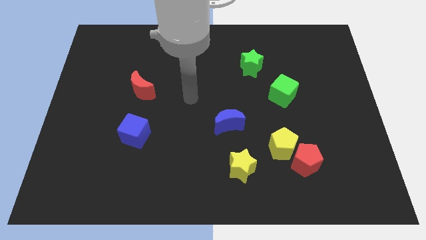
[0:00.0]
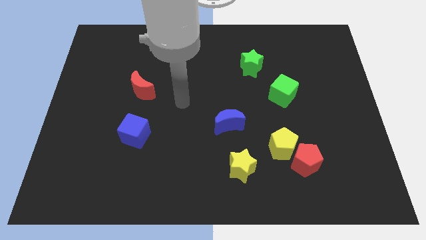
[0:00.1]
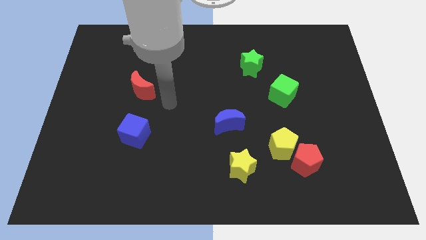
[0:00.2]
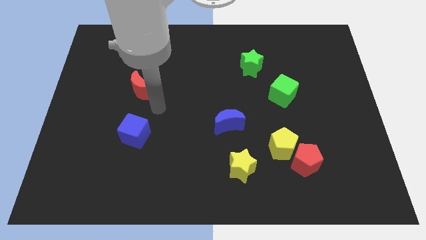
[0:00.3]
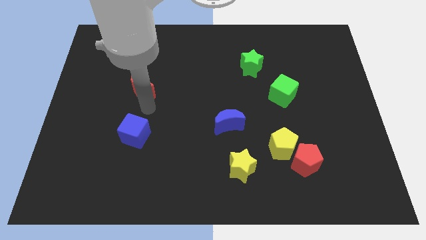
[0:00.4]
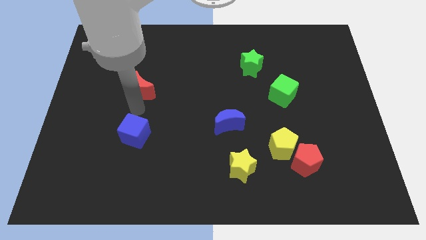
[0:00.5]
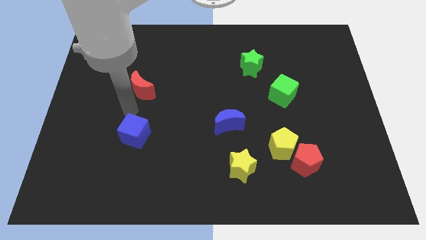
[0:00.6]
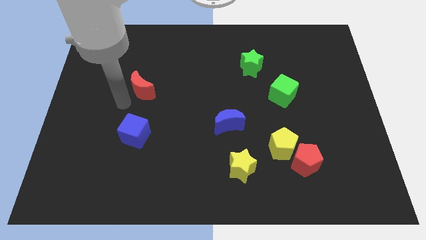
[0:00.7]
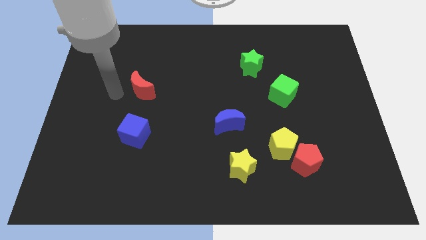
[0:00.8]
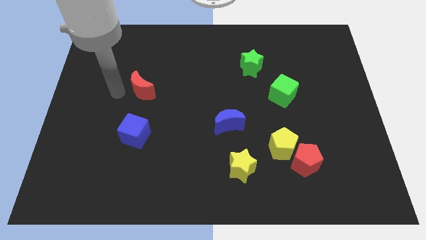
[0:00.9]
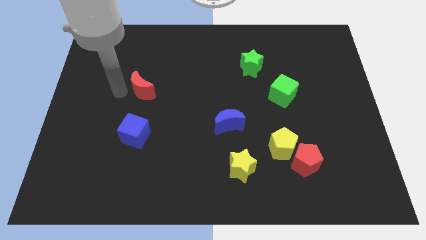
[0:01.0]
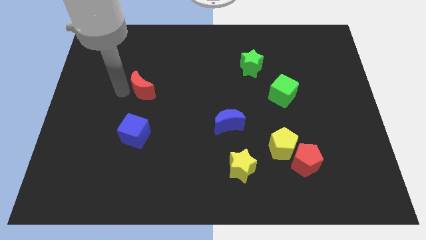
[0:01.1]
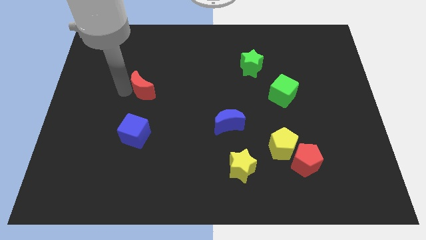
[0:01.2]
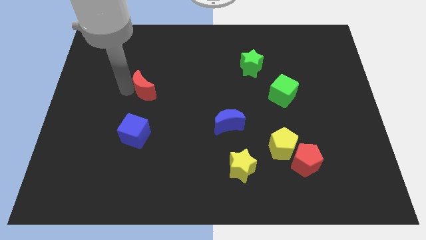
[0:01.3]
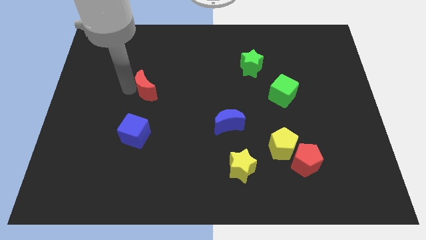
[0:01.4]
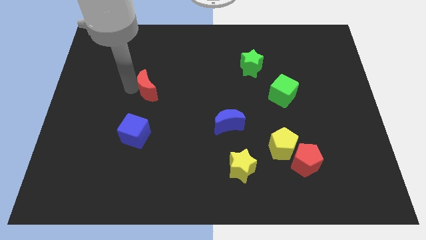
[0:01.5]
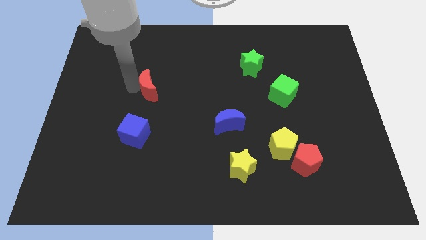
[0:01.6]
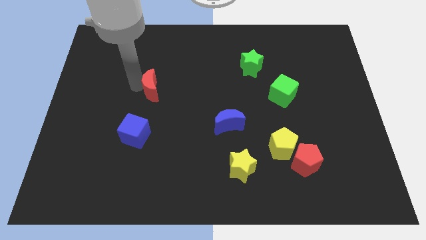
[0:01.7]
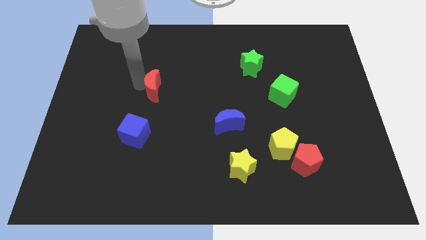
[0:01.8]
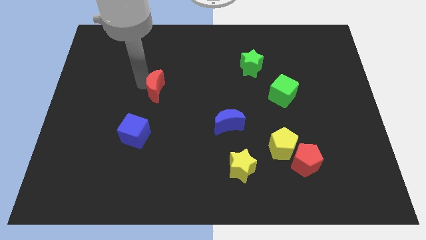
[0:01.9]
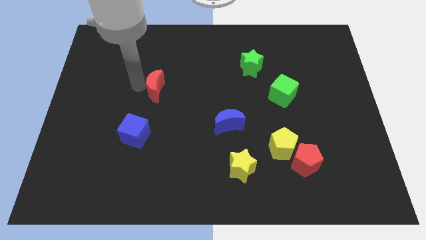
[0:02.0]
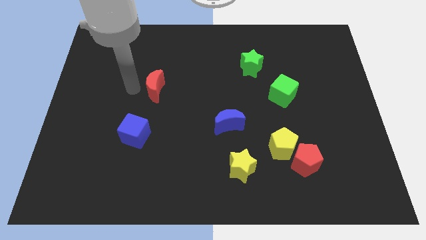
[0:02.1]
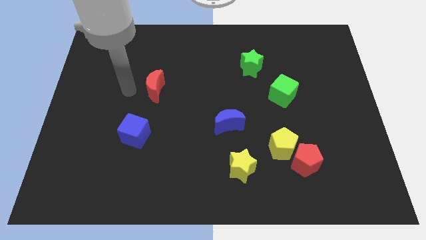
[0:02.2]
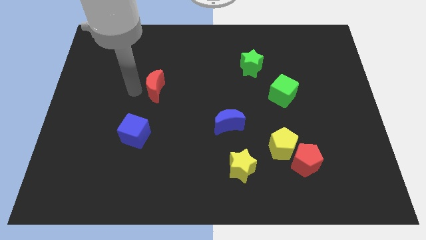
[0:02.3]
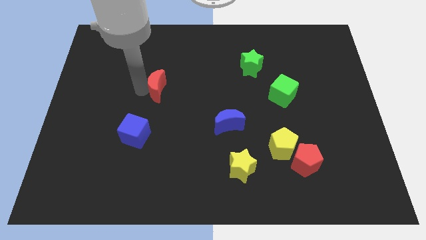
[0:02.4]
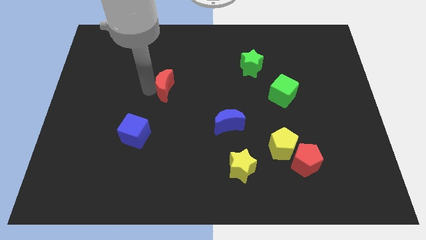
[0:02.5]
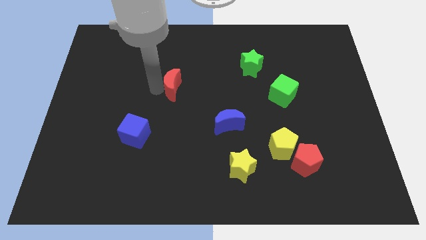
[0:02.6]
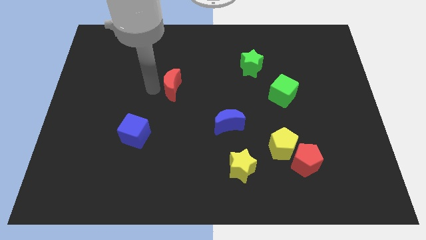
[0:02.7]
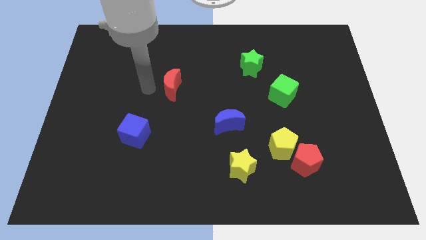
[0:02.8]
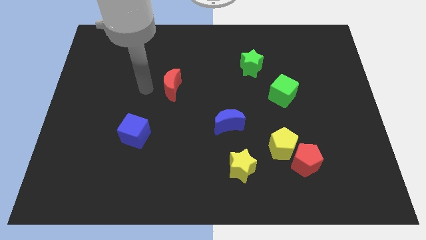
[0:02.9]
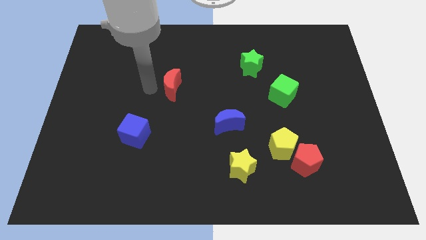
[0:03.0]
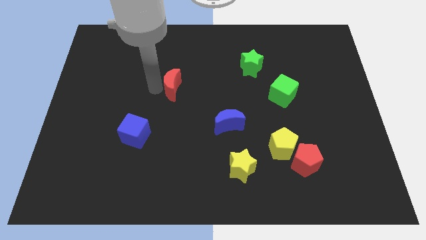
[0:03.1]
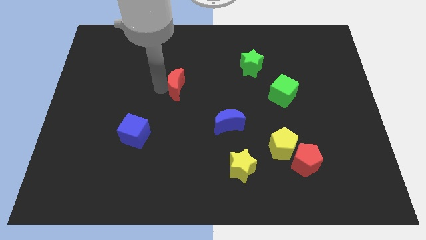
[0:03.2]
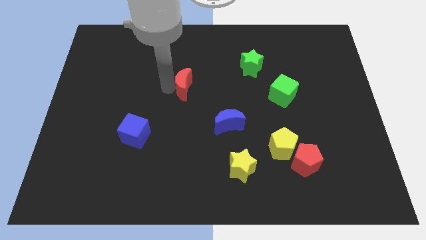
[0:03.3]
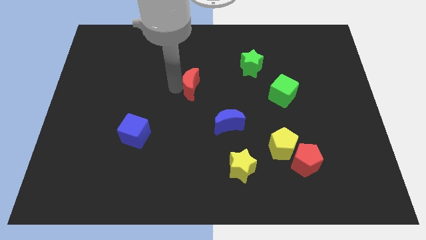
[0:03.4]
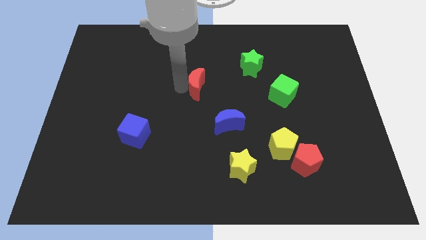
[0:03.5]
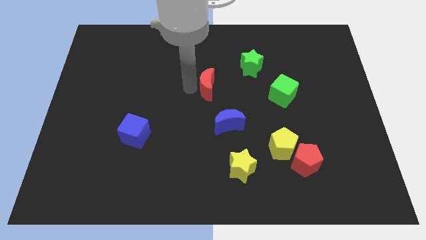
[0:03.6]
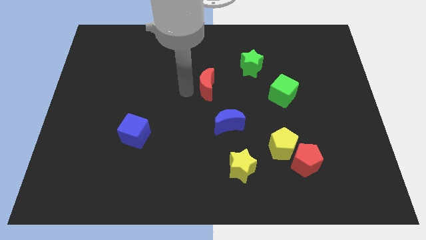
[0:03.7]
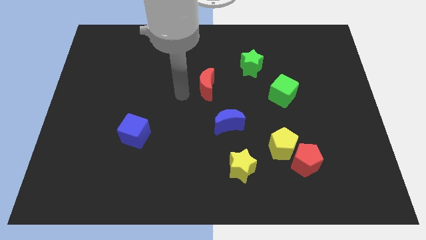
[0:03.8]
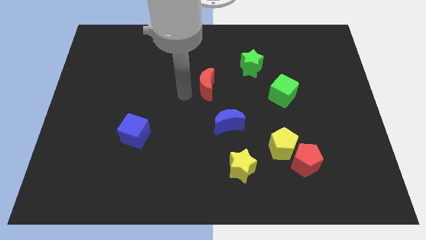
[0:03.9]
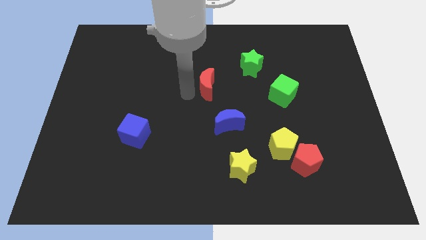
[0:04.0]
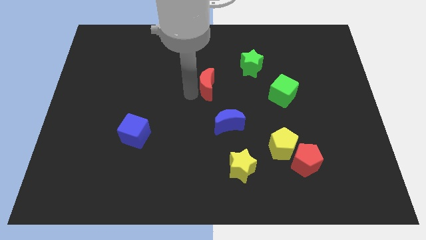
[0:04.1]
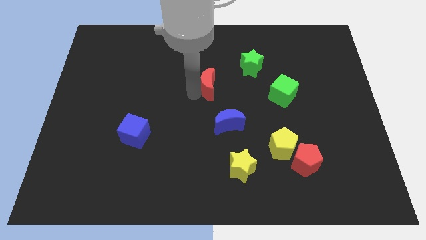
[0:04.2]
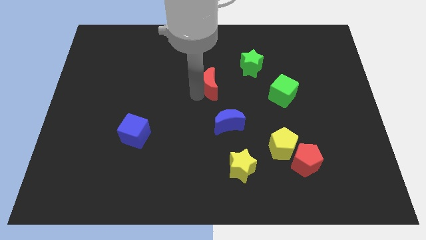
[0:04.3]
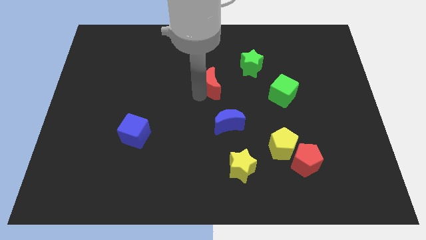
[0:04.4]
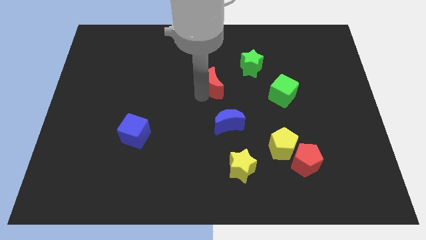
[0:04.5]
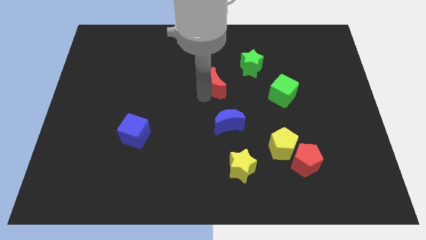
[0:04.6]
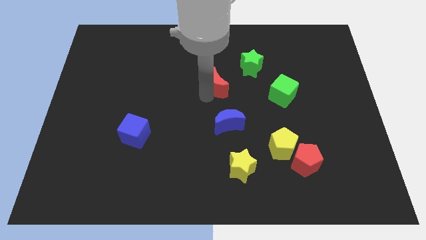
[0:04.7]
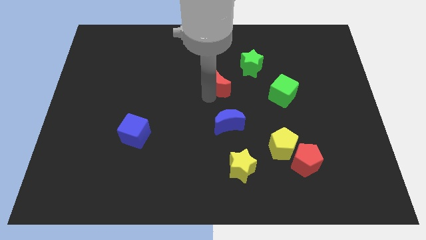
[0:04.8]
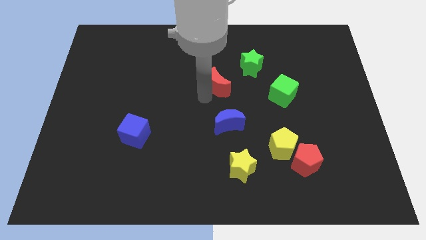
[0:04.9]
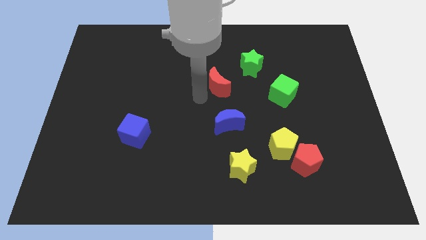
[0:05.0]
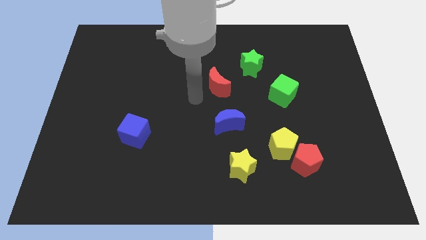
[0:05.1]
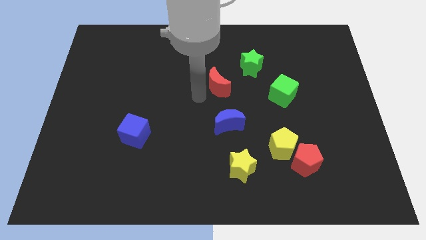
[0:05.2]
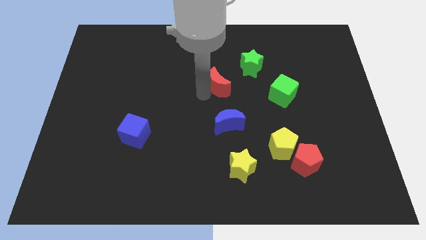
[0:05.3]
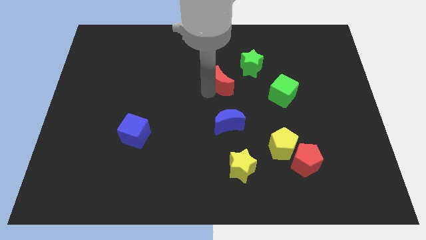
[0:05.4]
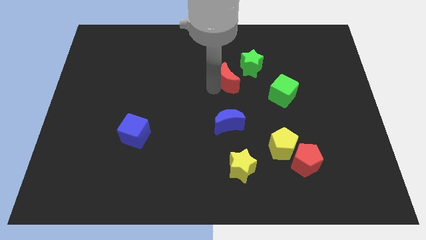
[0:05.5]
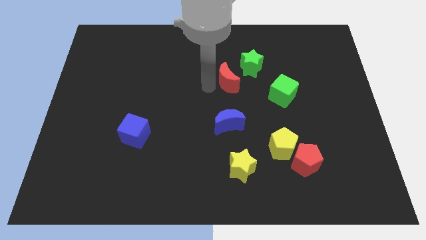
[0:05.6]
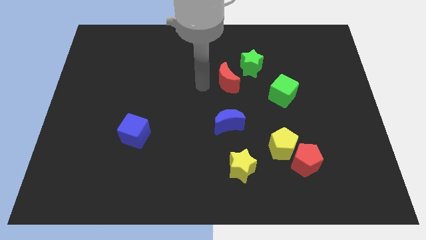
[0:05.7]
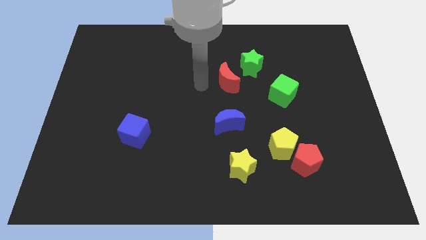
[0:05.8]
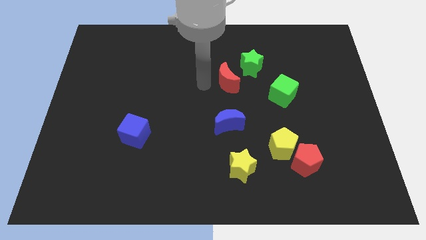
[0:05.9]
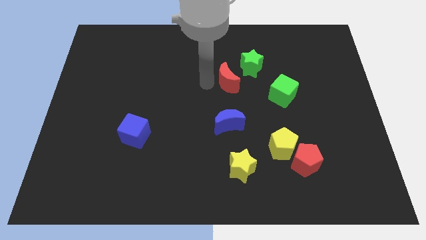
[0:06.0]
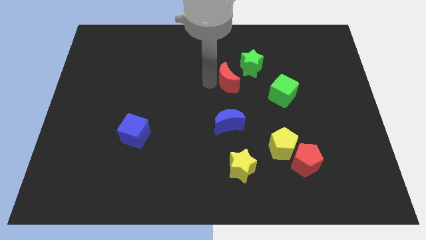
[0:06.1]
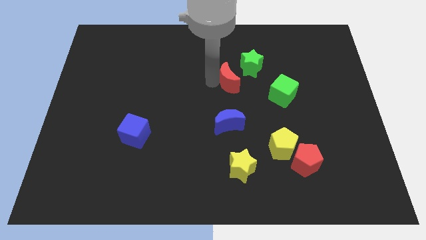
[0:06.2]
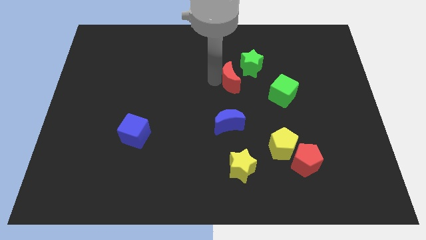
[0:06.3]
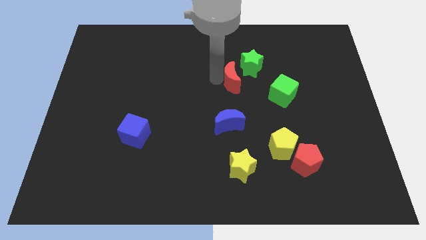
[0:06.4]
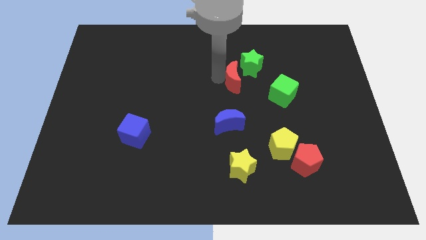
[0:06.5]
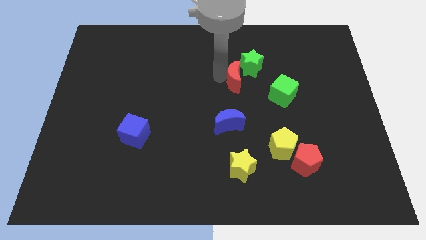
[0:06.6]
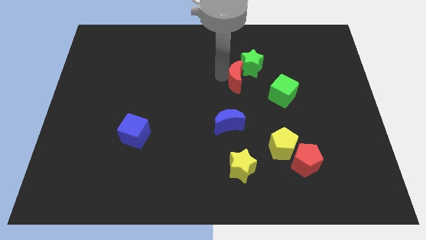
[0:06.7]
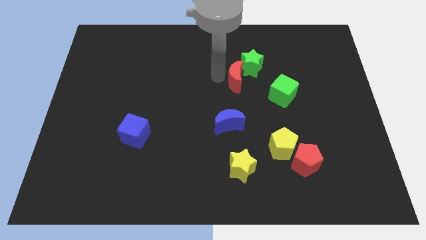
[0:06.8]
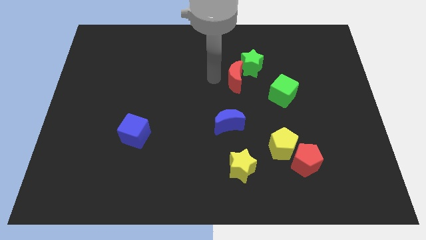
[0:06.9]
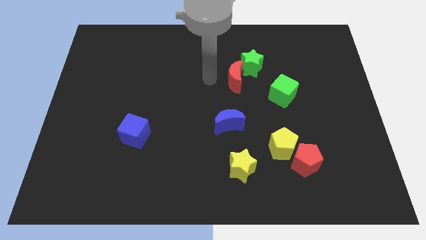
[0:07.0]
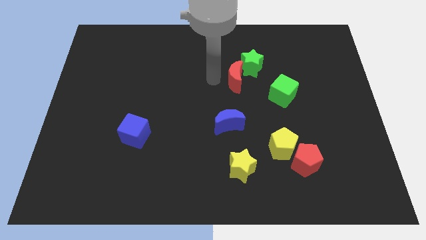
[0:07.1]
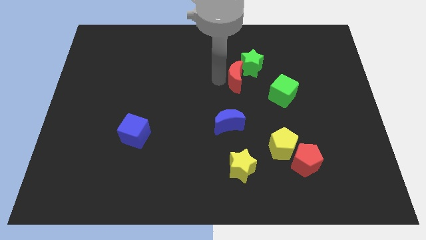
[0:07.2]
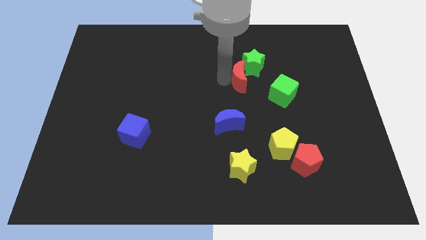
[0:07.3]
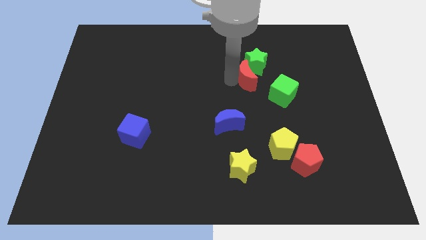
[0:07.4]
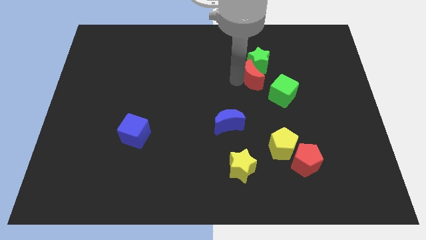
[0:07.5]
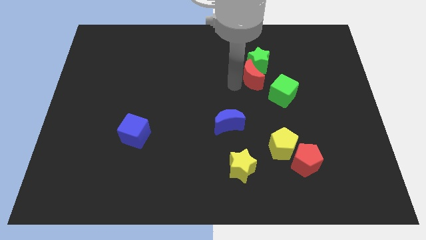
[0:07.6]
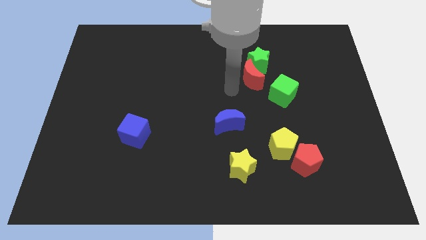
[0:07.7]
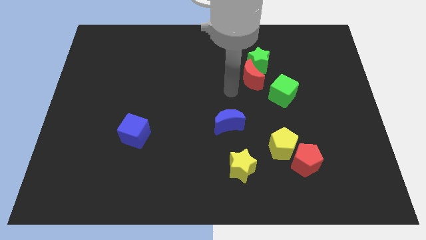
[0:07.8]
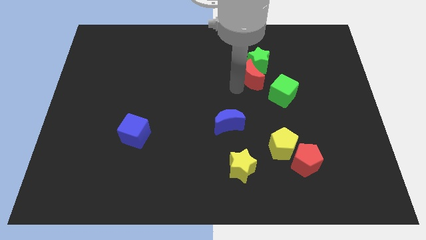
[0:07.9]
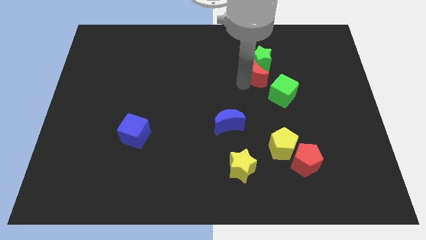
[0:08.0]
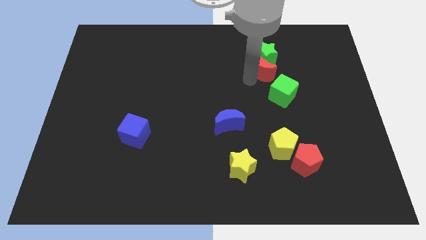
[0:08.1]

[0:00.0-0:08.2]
slide the red moon to the top side of the green cube
